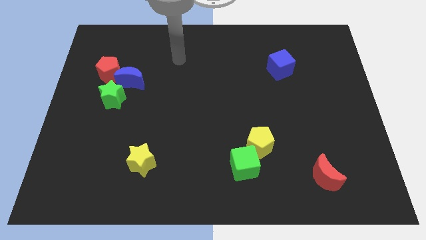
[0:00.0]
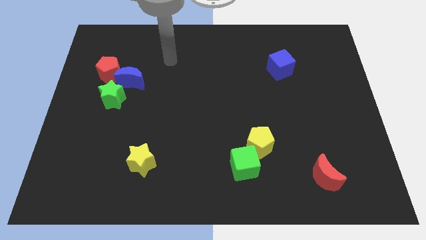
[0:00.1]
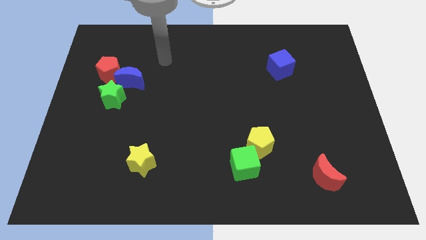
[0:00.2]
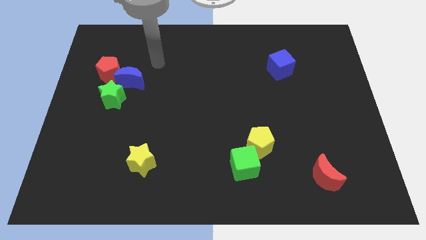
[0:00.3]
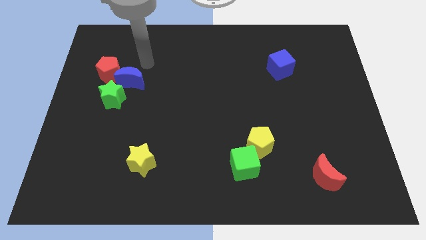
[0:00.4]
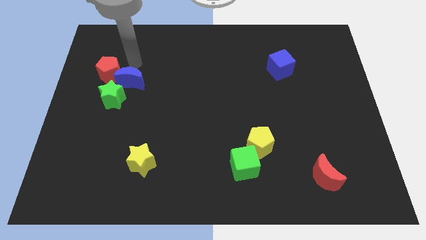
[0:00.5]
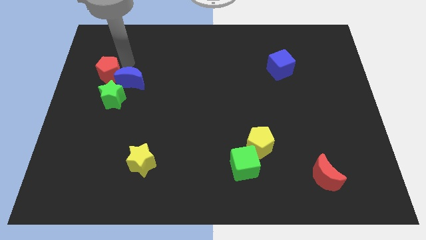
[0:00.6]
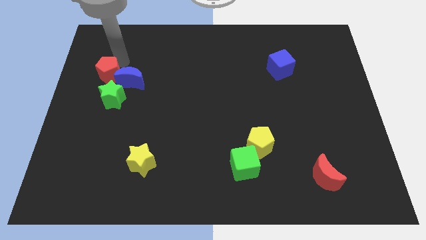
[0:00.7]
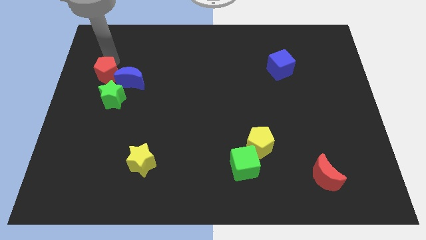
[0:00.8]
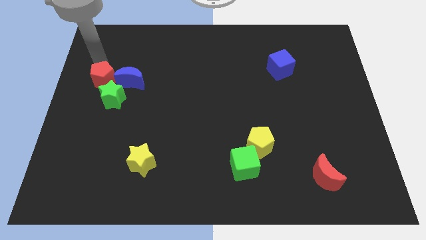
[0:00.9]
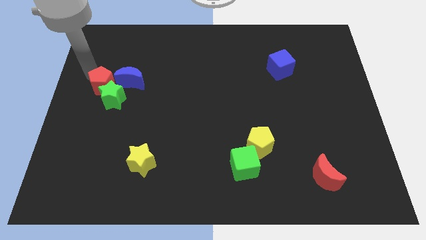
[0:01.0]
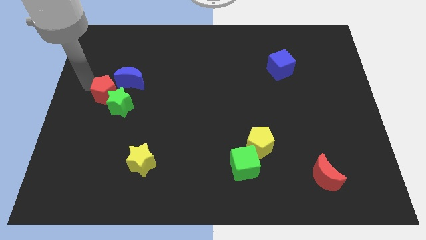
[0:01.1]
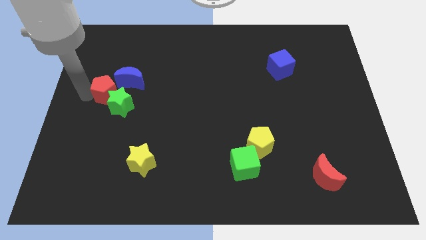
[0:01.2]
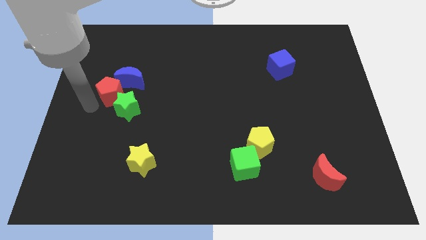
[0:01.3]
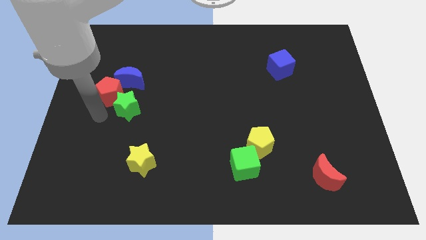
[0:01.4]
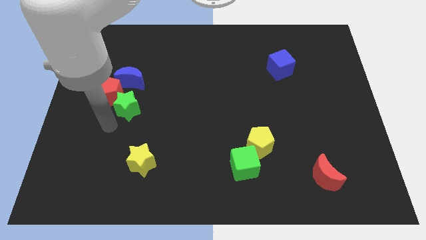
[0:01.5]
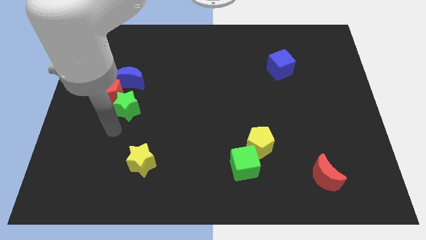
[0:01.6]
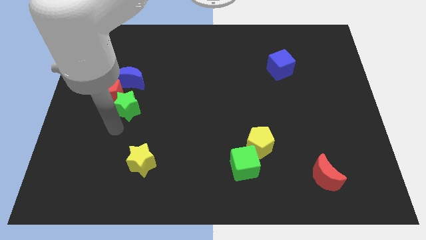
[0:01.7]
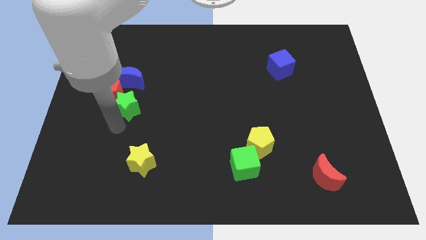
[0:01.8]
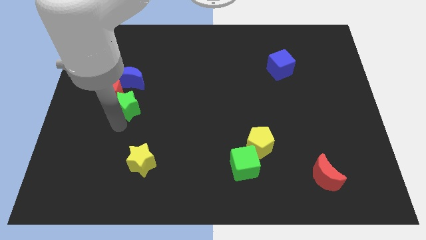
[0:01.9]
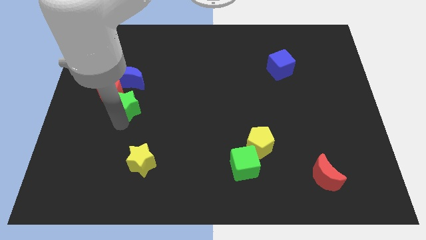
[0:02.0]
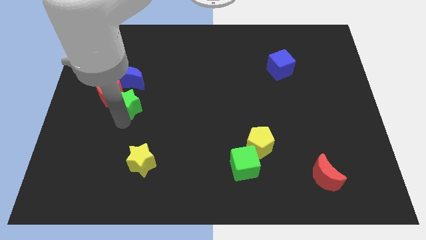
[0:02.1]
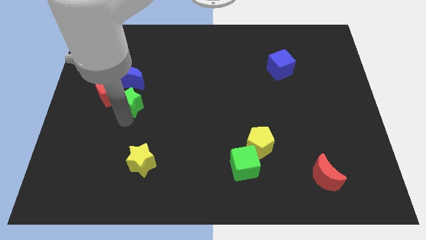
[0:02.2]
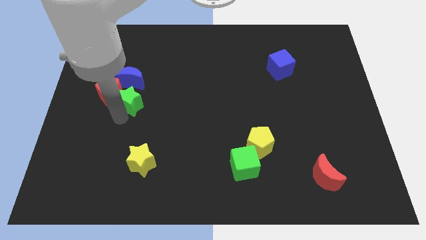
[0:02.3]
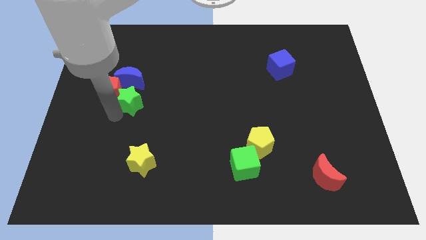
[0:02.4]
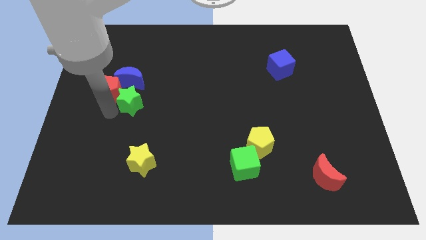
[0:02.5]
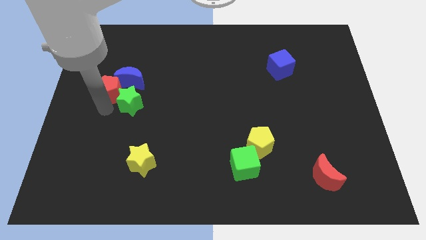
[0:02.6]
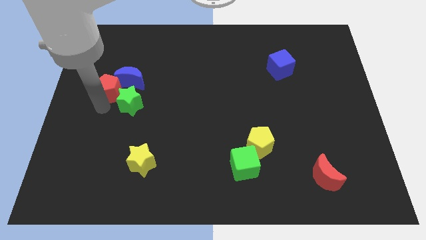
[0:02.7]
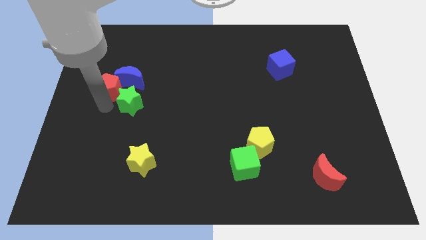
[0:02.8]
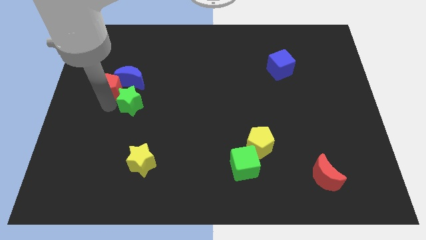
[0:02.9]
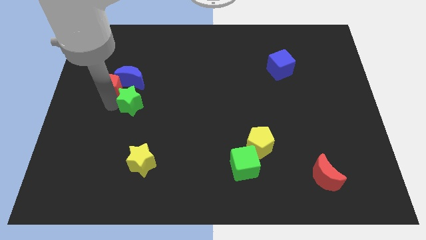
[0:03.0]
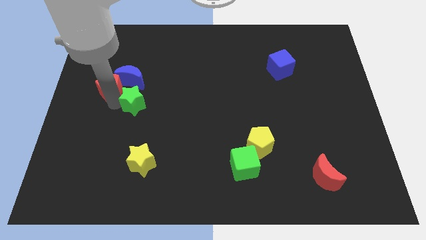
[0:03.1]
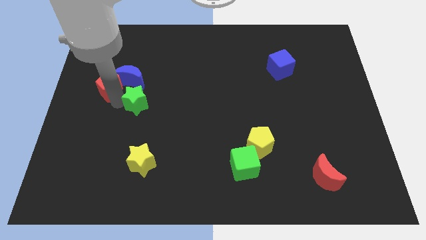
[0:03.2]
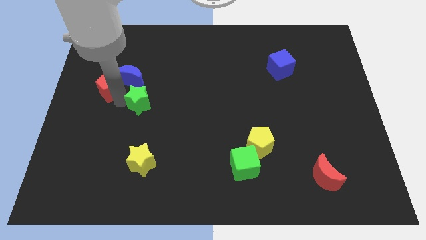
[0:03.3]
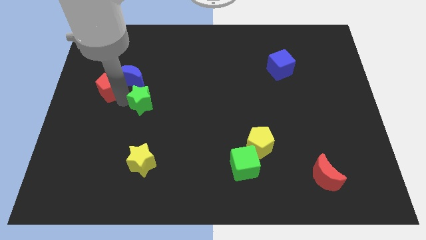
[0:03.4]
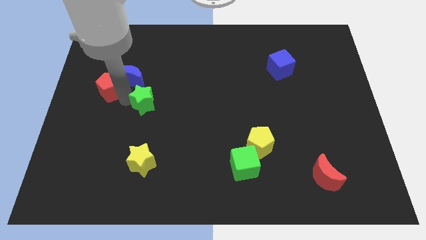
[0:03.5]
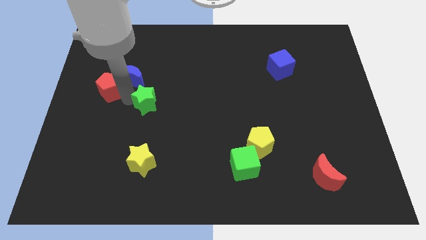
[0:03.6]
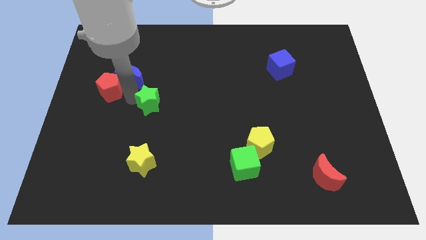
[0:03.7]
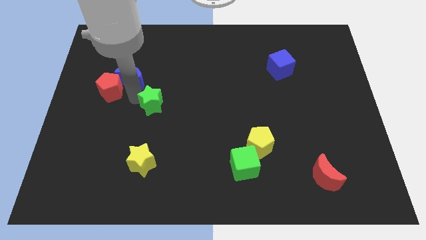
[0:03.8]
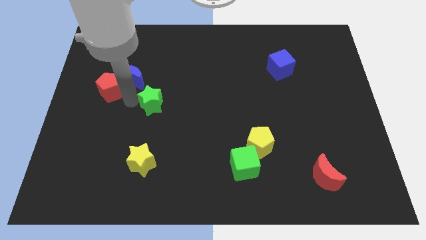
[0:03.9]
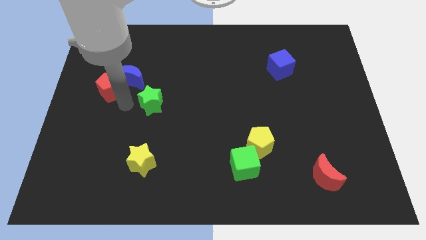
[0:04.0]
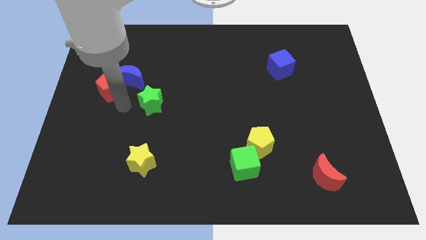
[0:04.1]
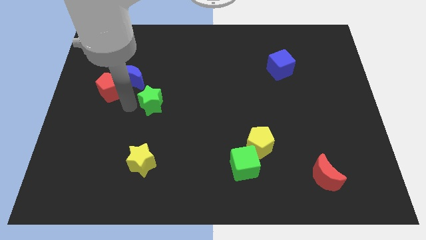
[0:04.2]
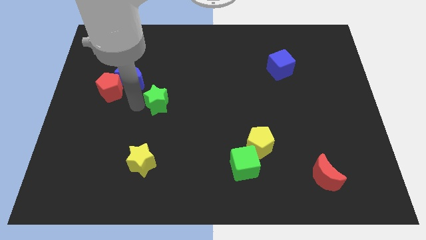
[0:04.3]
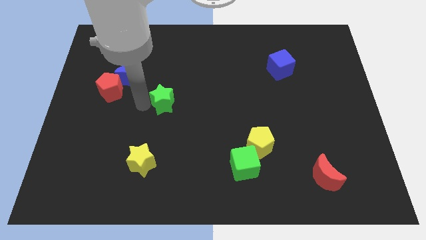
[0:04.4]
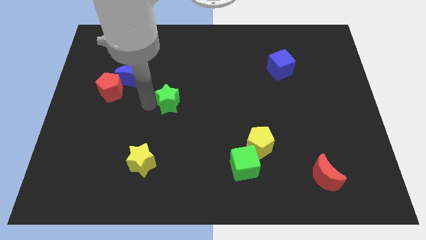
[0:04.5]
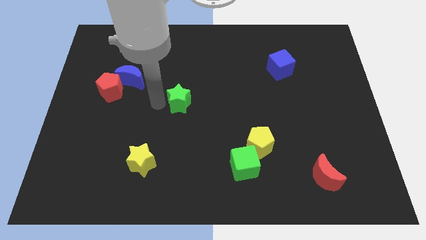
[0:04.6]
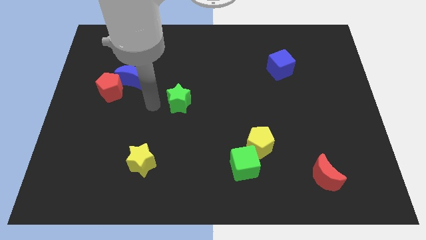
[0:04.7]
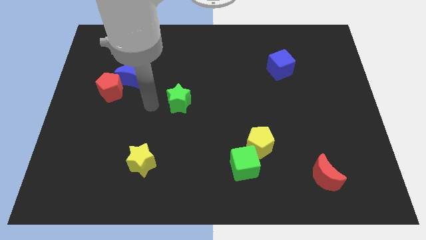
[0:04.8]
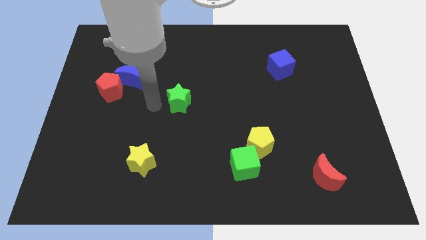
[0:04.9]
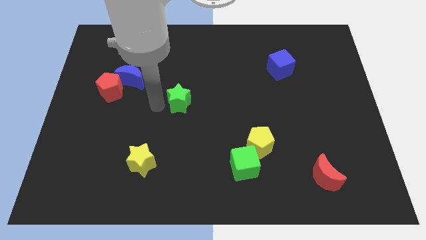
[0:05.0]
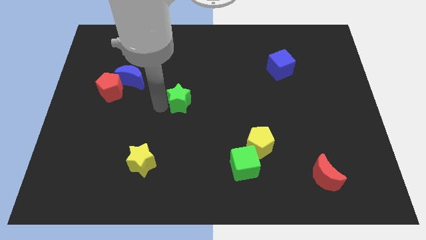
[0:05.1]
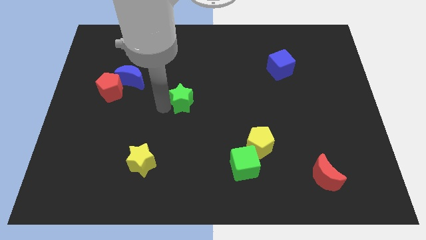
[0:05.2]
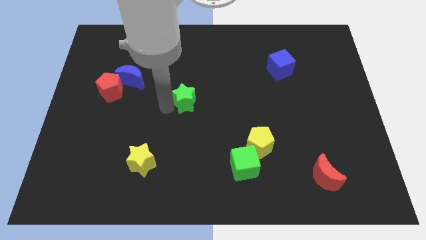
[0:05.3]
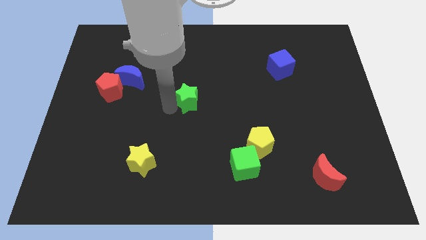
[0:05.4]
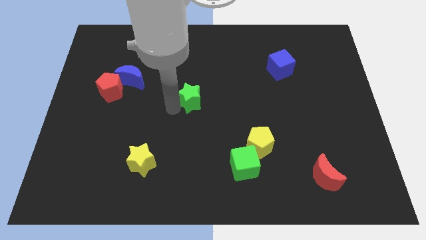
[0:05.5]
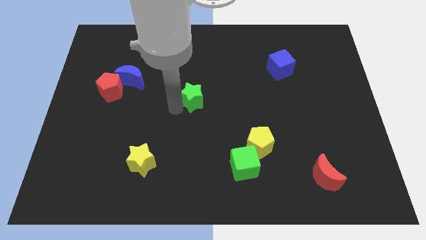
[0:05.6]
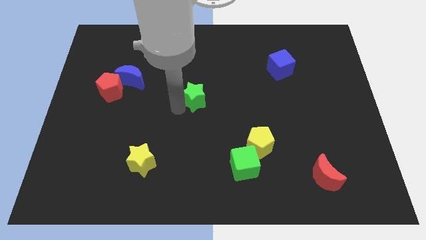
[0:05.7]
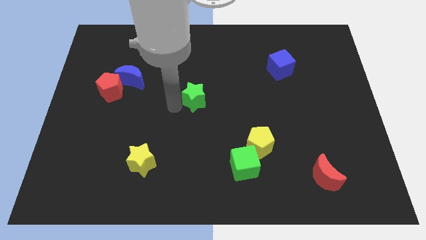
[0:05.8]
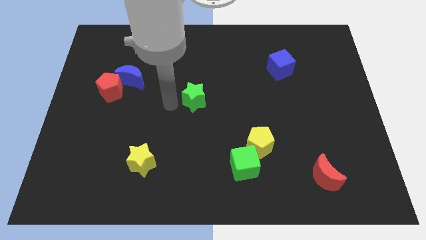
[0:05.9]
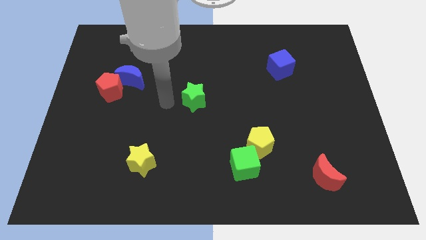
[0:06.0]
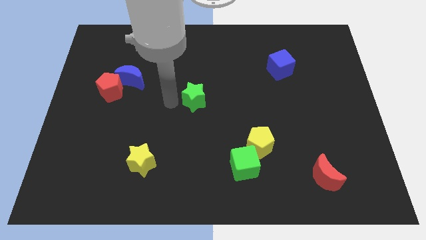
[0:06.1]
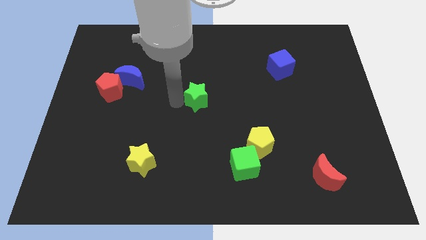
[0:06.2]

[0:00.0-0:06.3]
push the green star to the right

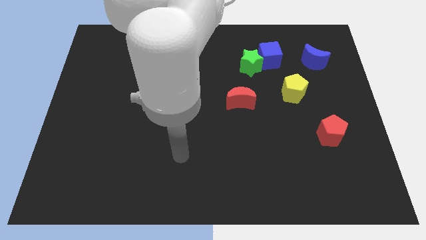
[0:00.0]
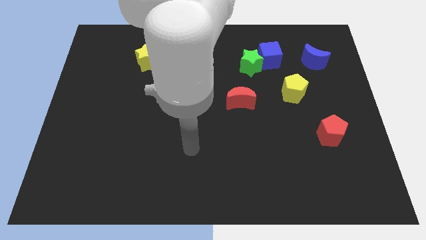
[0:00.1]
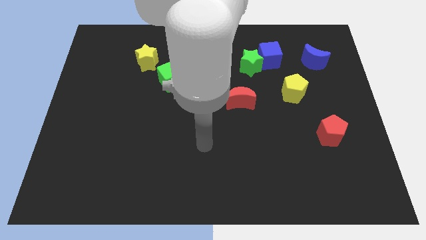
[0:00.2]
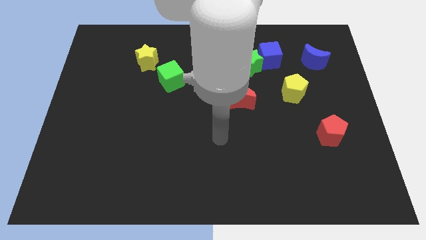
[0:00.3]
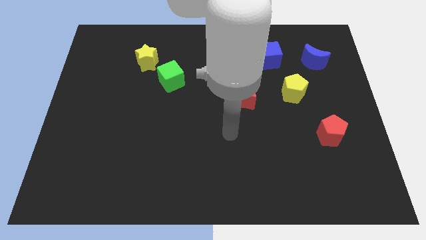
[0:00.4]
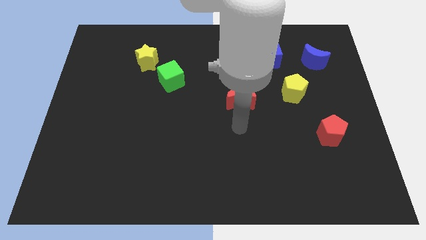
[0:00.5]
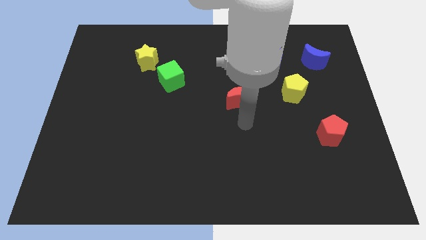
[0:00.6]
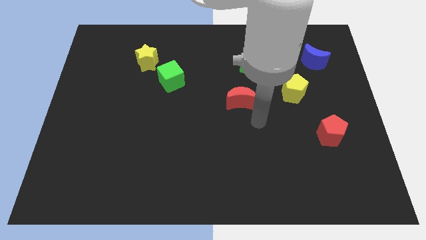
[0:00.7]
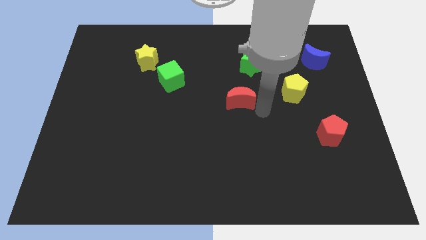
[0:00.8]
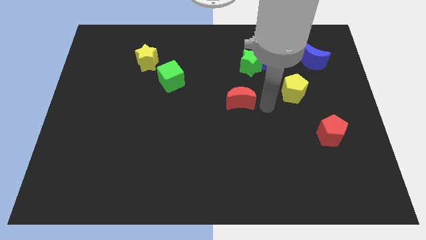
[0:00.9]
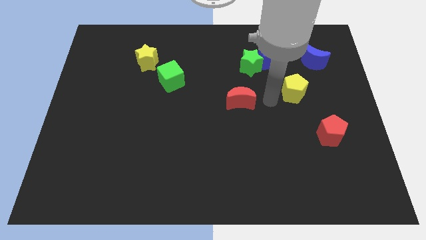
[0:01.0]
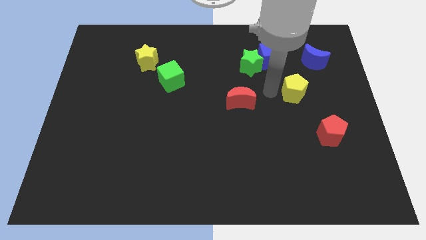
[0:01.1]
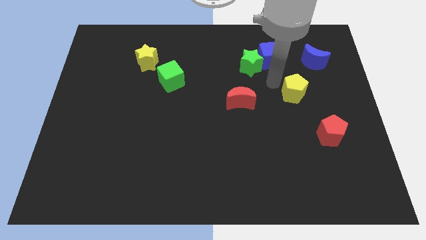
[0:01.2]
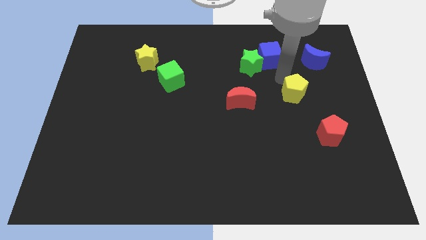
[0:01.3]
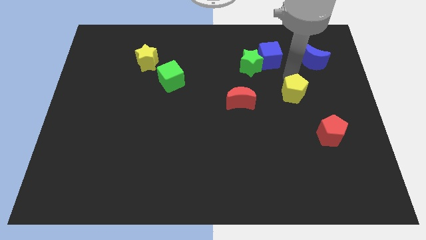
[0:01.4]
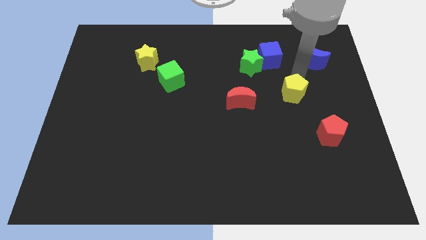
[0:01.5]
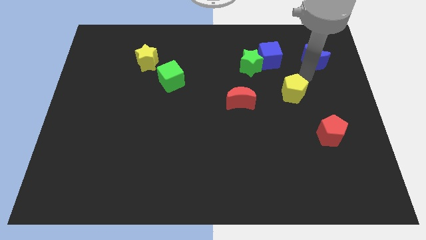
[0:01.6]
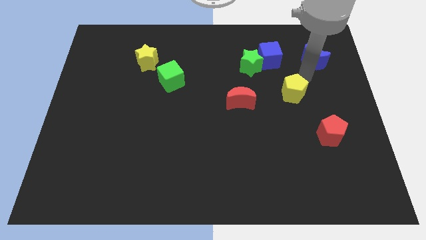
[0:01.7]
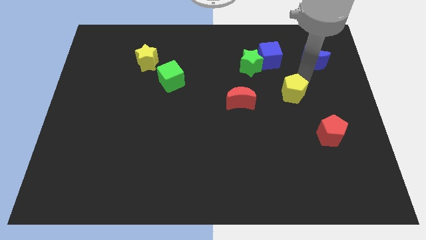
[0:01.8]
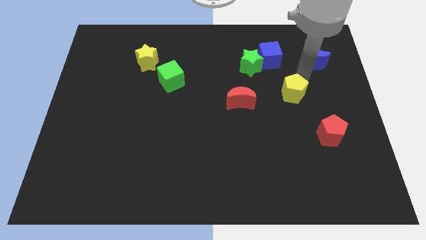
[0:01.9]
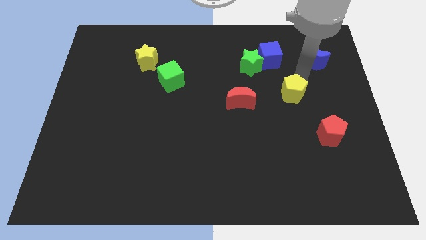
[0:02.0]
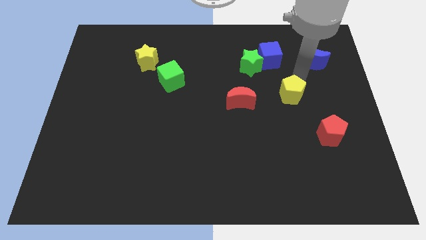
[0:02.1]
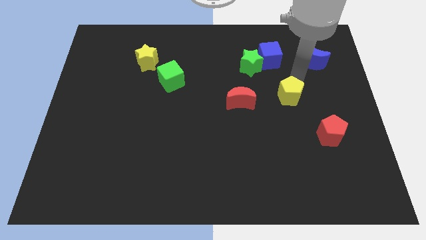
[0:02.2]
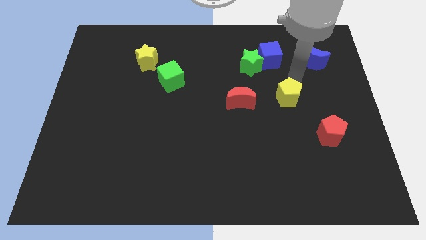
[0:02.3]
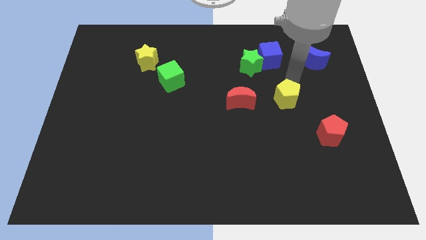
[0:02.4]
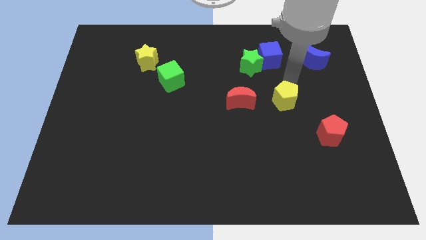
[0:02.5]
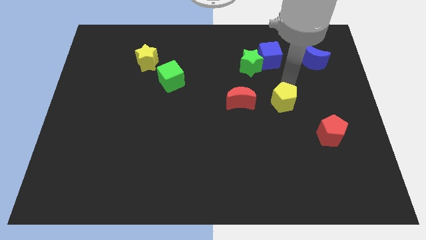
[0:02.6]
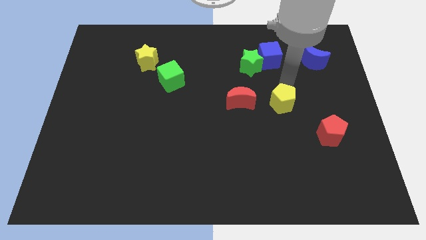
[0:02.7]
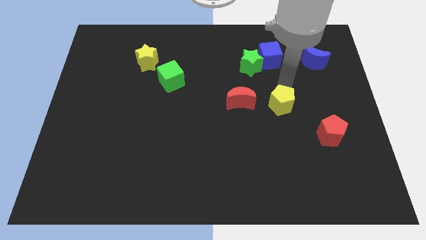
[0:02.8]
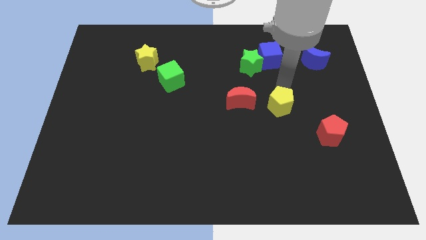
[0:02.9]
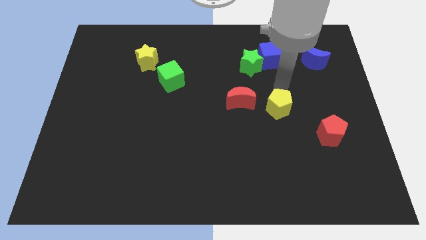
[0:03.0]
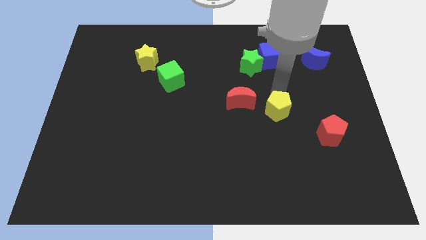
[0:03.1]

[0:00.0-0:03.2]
slide the yellow pentagon somewhat downwards and to the left diagonally
